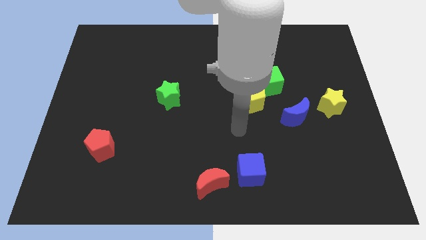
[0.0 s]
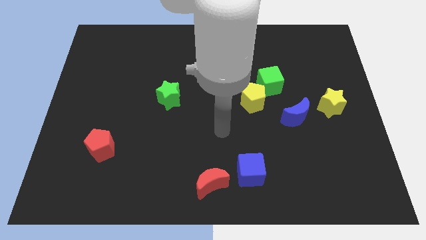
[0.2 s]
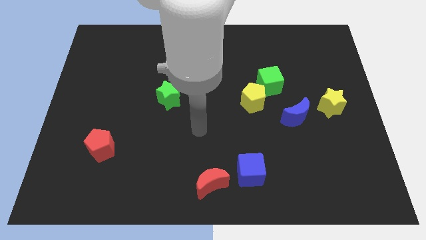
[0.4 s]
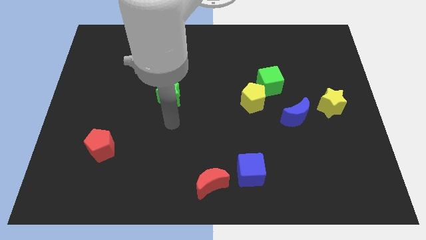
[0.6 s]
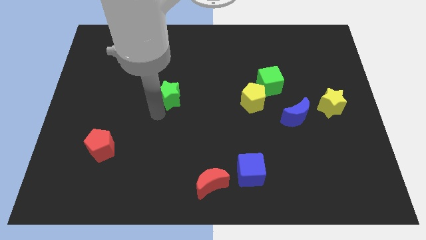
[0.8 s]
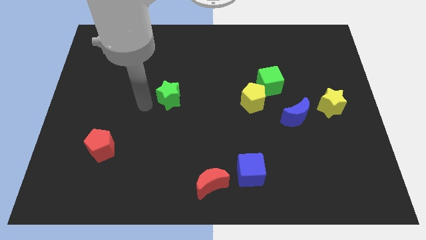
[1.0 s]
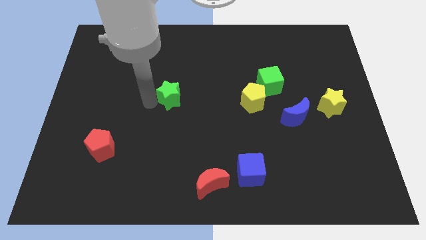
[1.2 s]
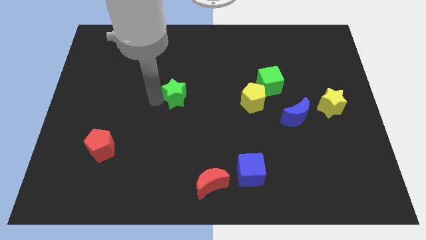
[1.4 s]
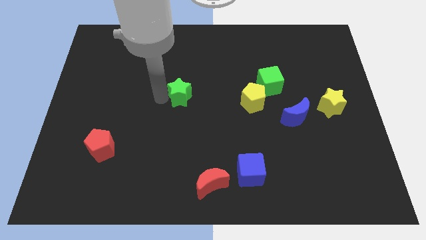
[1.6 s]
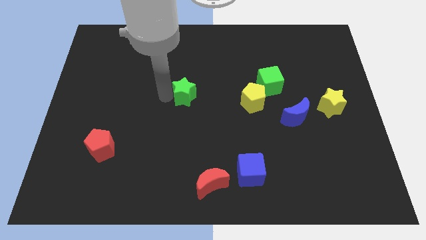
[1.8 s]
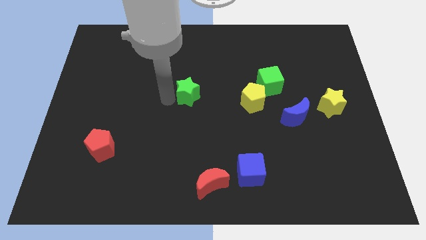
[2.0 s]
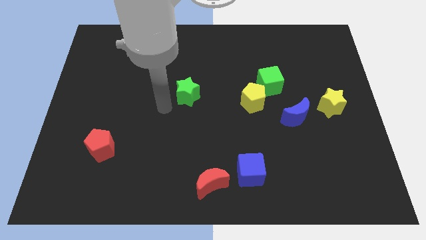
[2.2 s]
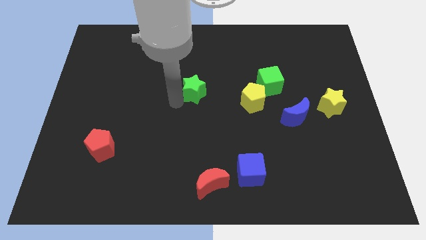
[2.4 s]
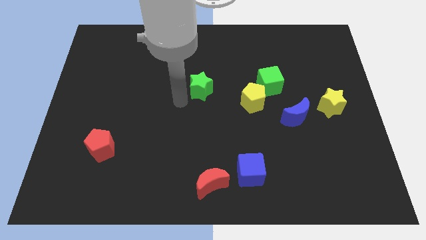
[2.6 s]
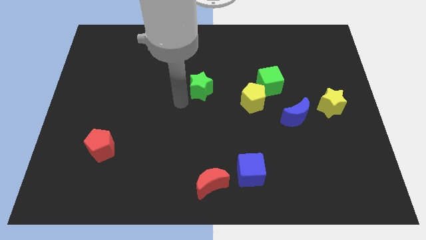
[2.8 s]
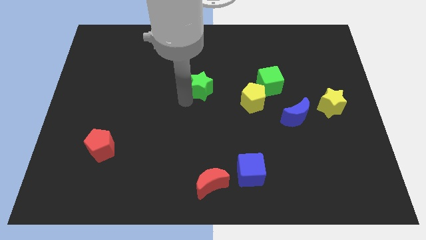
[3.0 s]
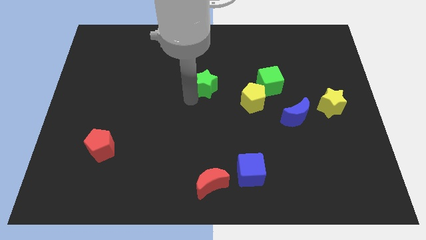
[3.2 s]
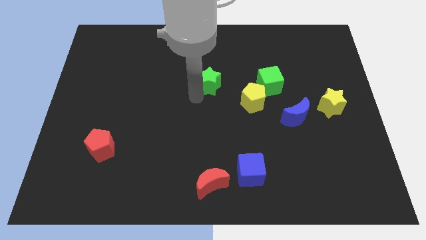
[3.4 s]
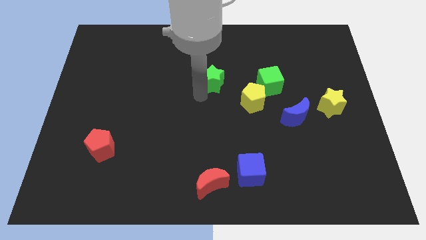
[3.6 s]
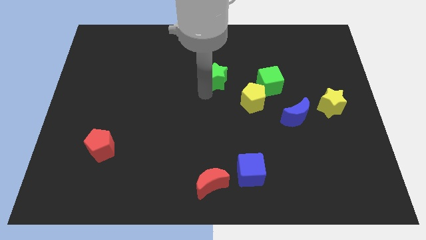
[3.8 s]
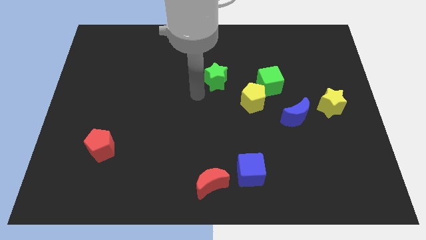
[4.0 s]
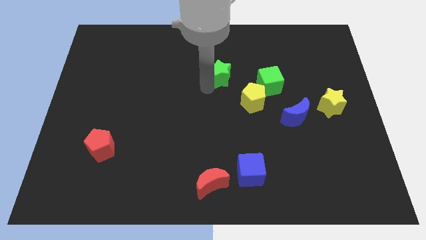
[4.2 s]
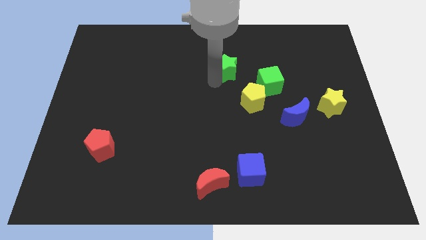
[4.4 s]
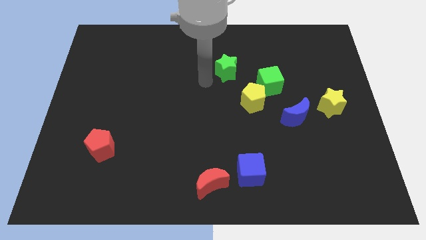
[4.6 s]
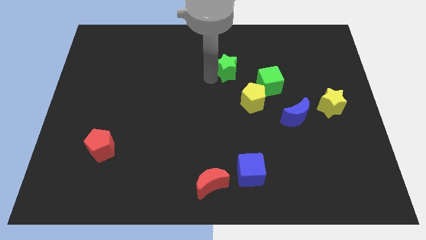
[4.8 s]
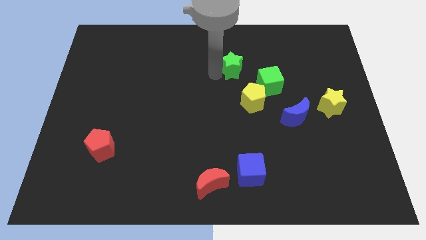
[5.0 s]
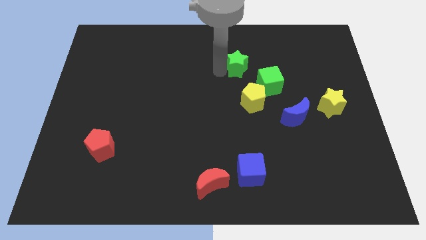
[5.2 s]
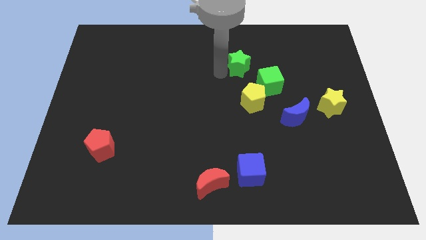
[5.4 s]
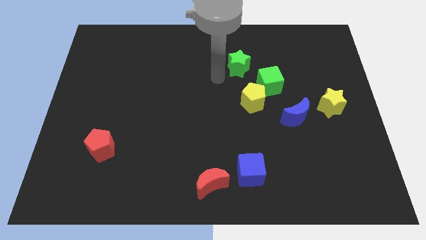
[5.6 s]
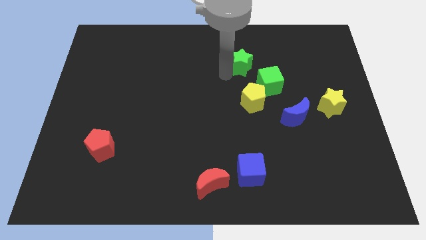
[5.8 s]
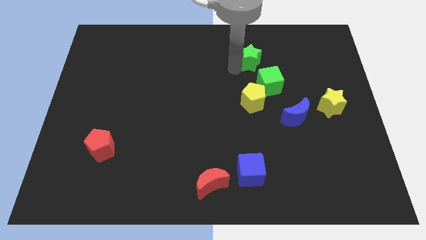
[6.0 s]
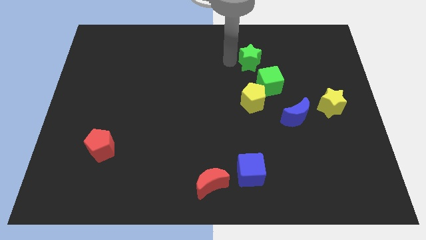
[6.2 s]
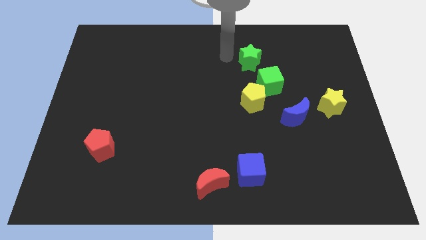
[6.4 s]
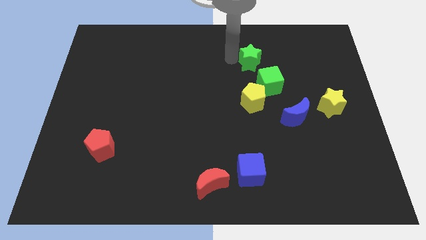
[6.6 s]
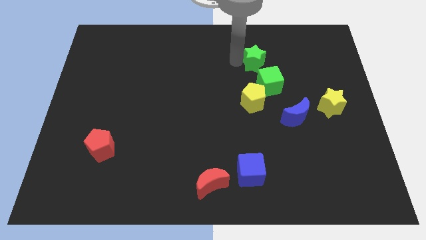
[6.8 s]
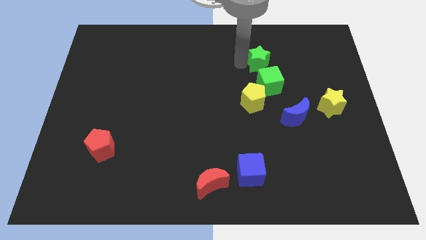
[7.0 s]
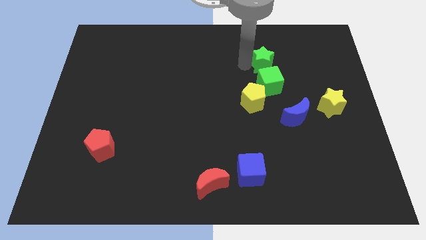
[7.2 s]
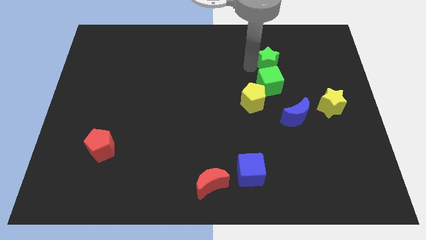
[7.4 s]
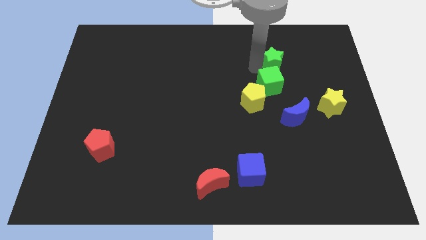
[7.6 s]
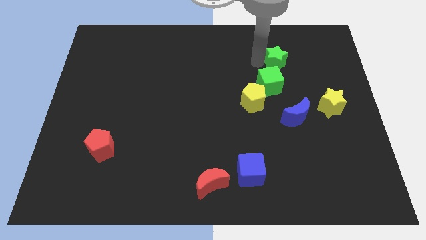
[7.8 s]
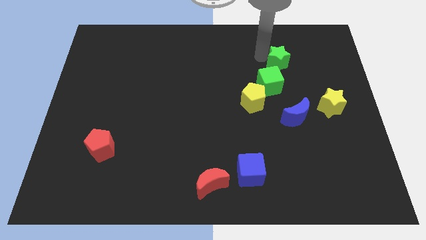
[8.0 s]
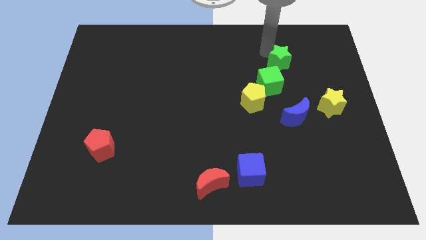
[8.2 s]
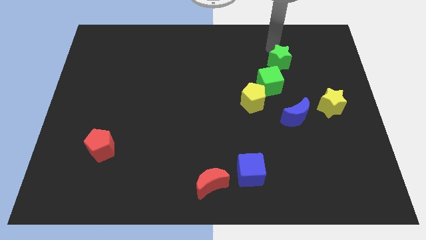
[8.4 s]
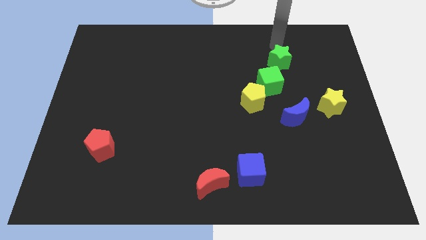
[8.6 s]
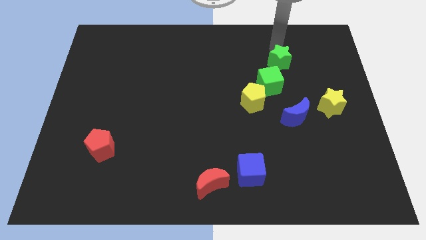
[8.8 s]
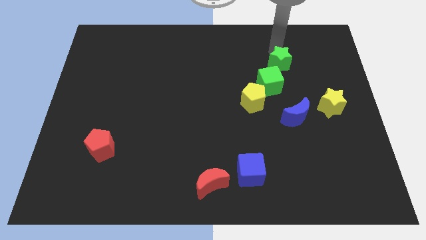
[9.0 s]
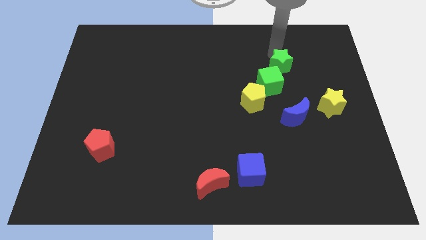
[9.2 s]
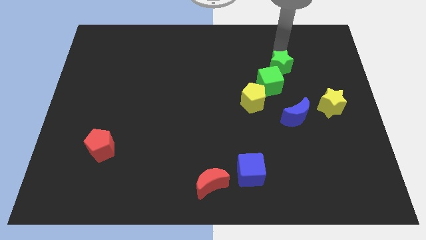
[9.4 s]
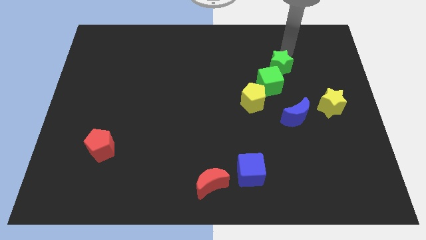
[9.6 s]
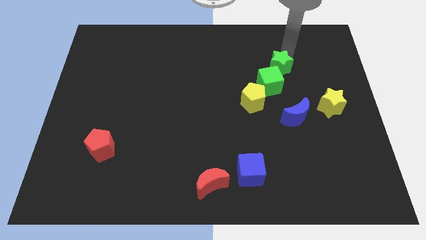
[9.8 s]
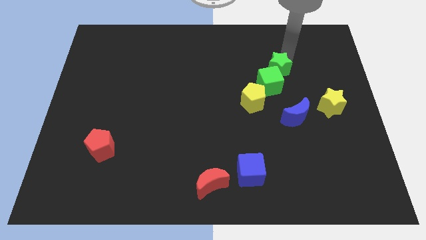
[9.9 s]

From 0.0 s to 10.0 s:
slide the green star to the top right of the yellow pentagon

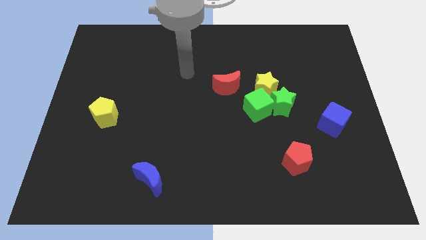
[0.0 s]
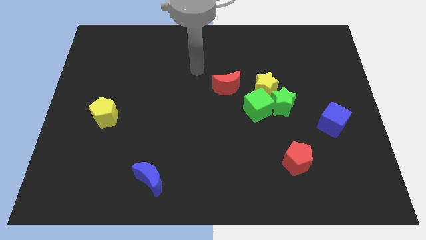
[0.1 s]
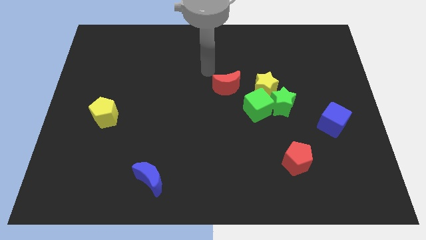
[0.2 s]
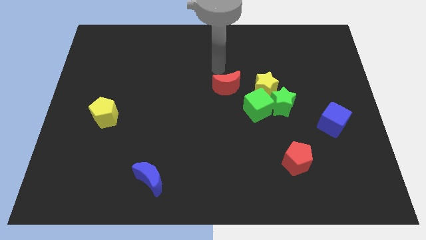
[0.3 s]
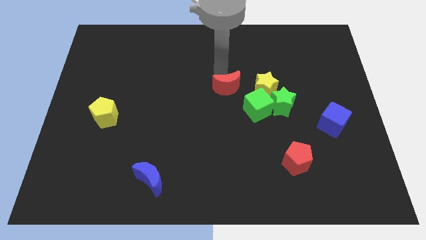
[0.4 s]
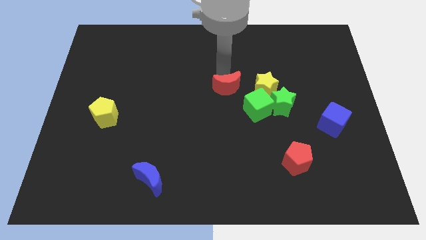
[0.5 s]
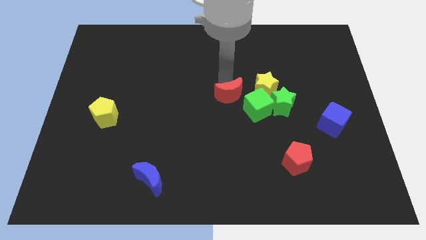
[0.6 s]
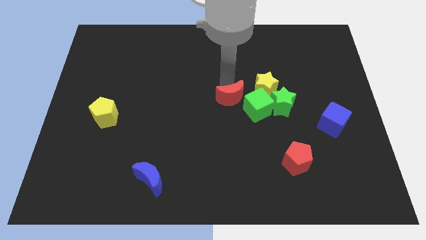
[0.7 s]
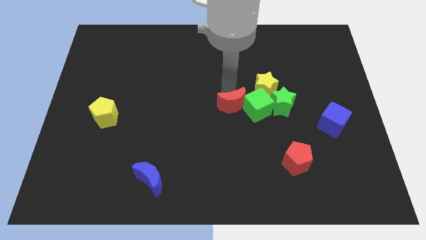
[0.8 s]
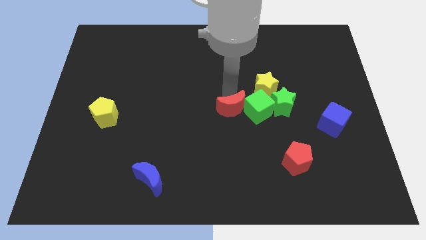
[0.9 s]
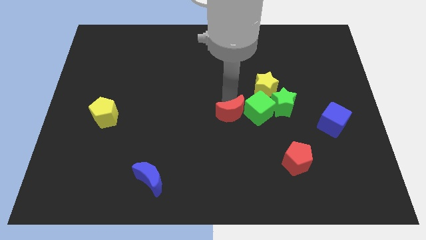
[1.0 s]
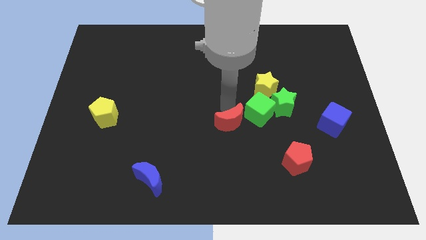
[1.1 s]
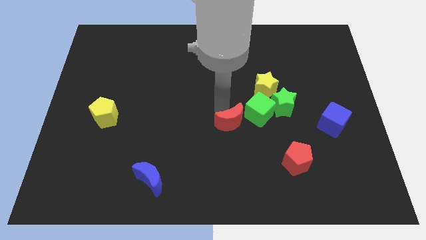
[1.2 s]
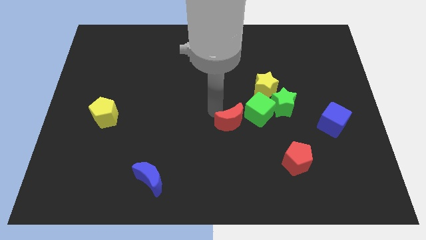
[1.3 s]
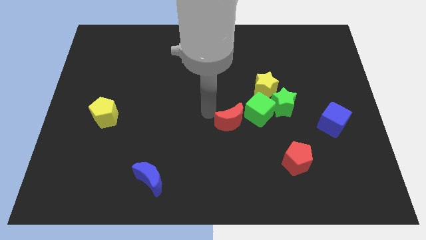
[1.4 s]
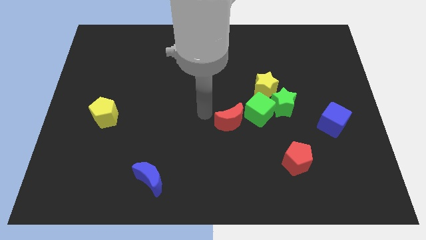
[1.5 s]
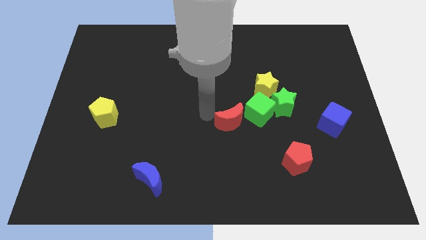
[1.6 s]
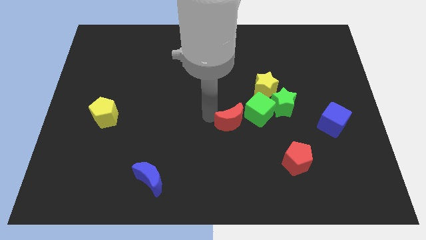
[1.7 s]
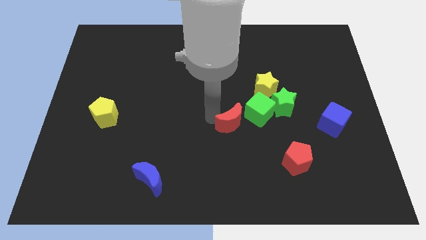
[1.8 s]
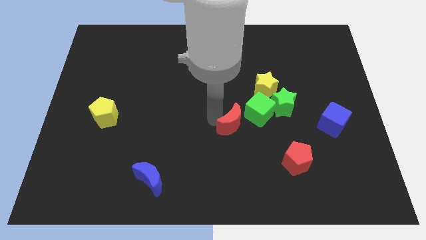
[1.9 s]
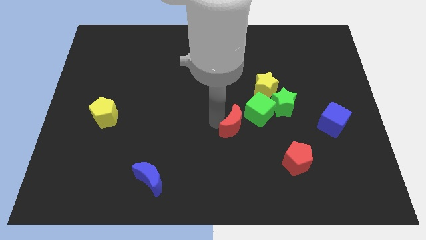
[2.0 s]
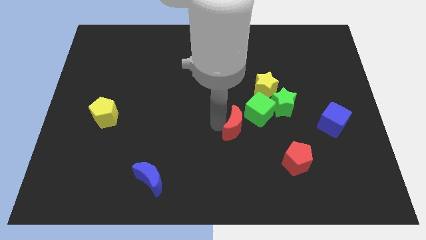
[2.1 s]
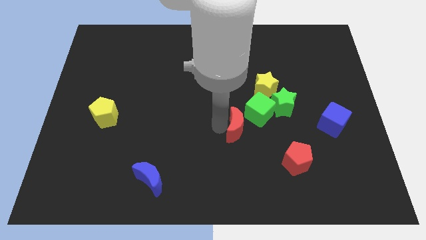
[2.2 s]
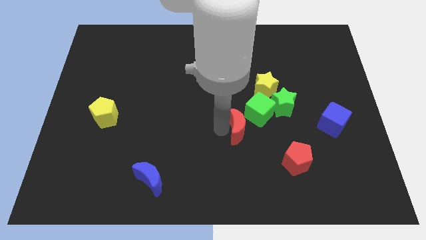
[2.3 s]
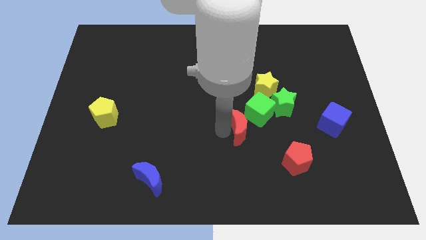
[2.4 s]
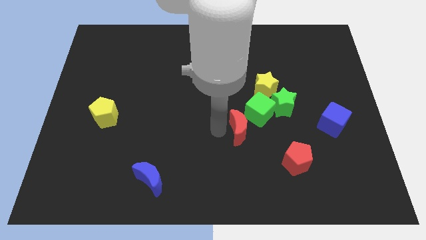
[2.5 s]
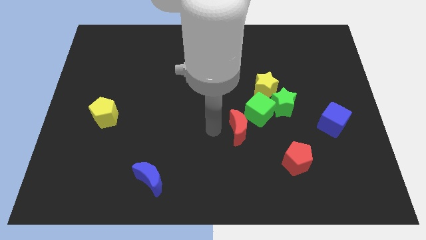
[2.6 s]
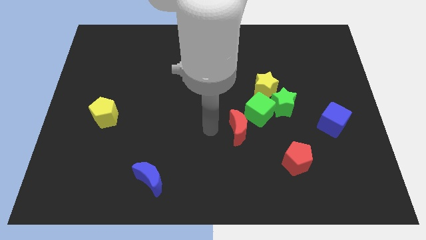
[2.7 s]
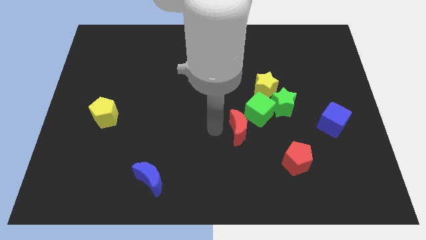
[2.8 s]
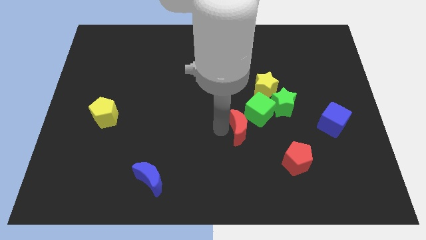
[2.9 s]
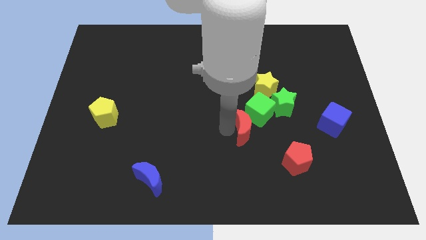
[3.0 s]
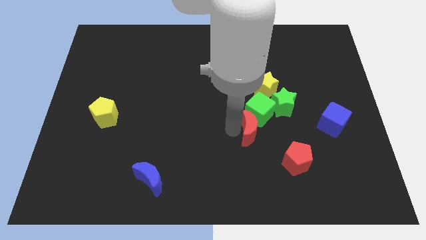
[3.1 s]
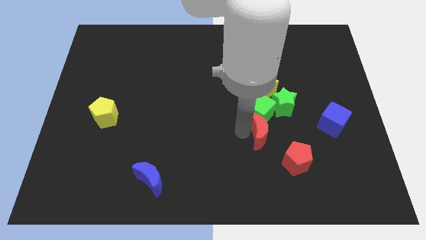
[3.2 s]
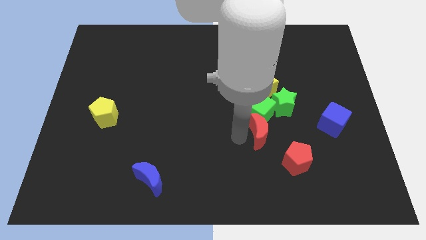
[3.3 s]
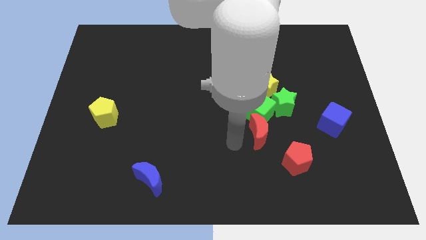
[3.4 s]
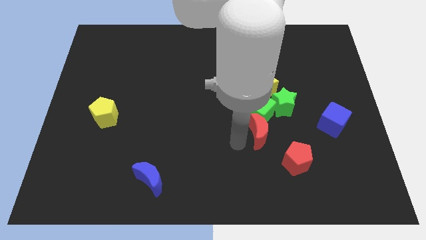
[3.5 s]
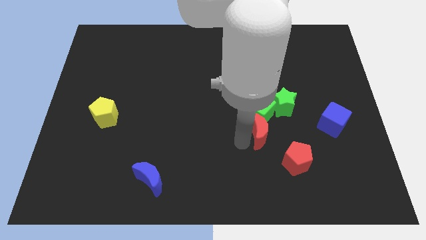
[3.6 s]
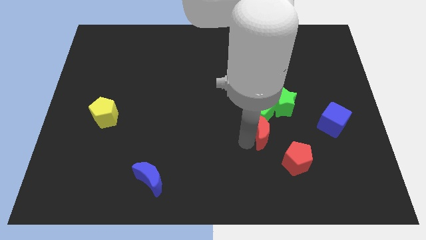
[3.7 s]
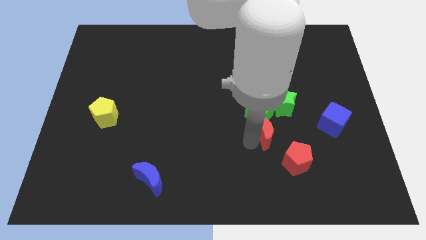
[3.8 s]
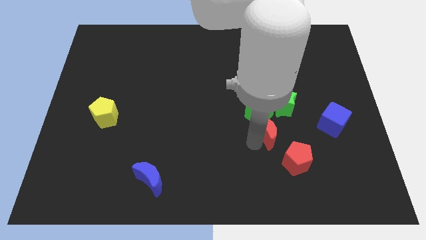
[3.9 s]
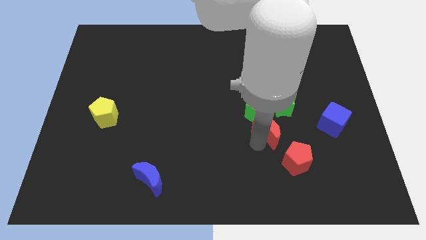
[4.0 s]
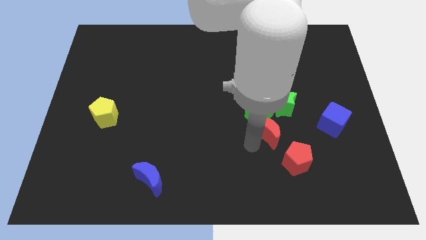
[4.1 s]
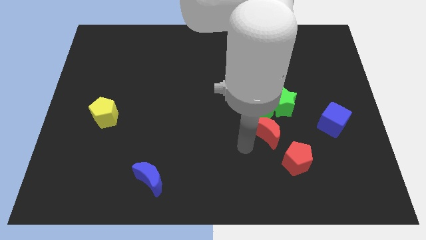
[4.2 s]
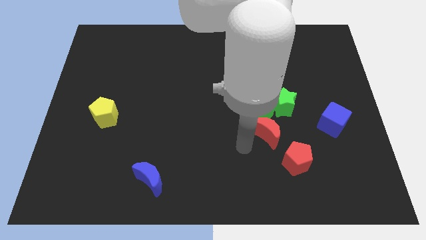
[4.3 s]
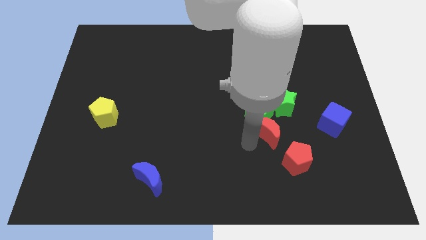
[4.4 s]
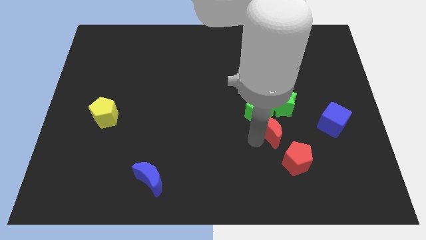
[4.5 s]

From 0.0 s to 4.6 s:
put the red moon to the top side of the red pentagon
